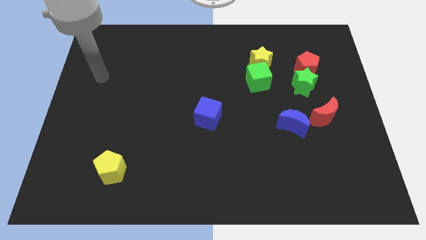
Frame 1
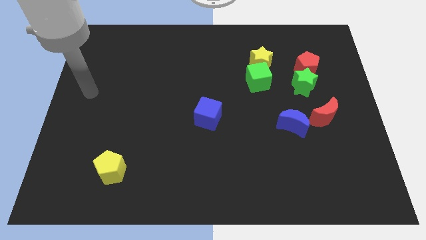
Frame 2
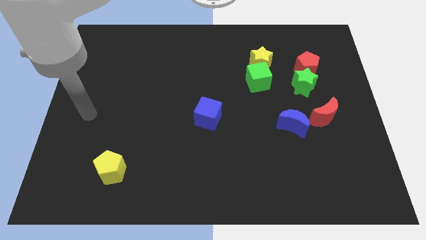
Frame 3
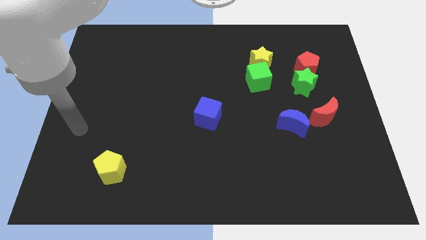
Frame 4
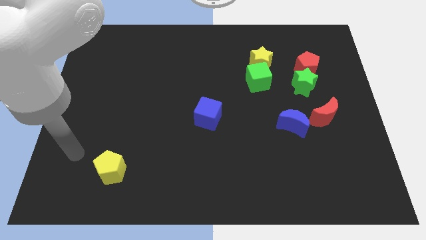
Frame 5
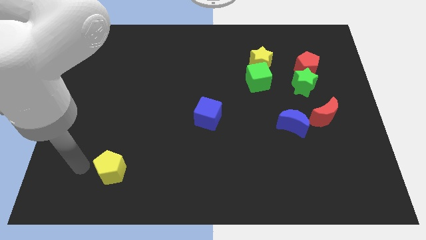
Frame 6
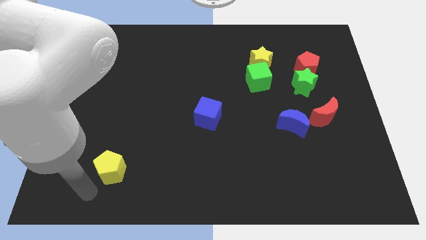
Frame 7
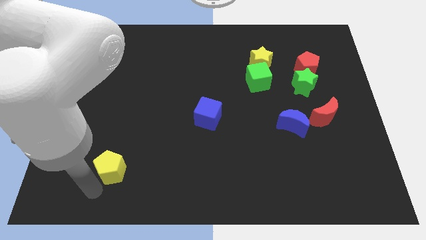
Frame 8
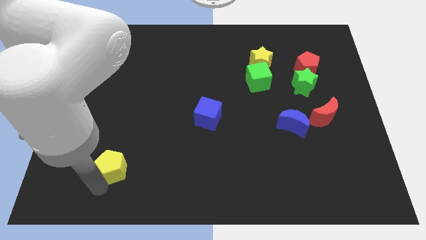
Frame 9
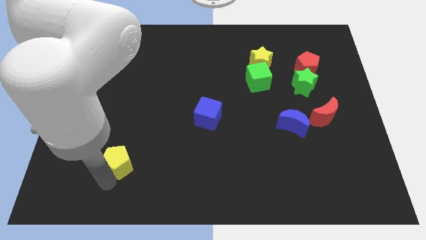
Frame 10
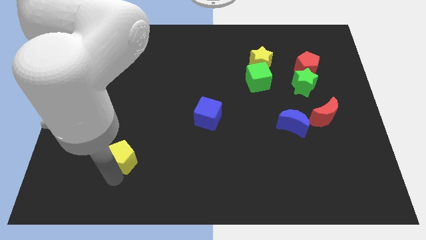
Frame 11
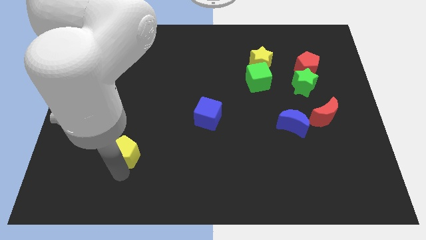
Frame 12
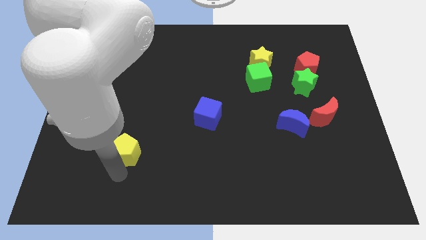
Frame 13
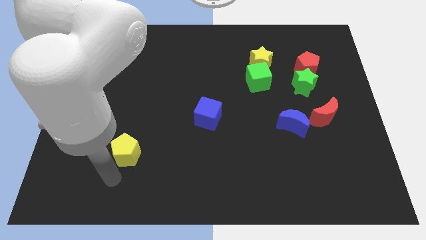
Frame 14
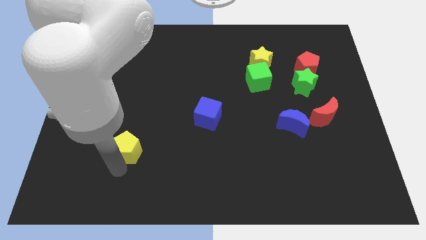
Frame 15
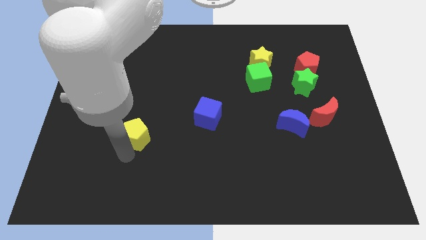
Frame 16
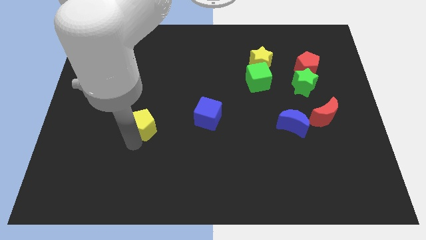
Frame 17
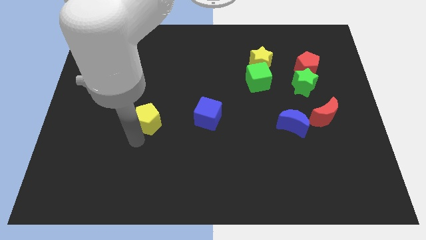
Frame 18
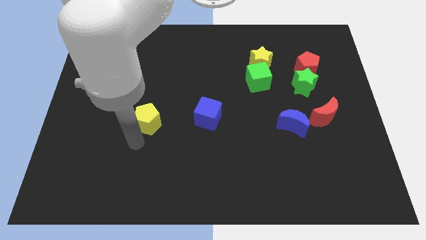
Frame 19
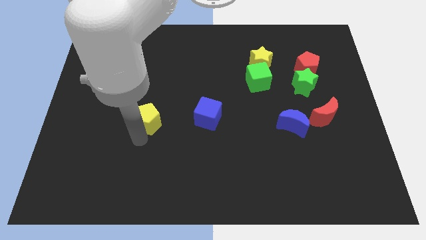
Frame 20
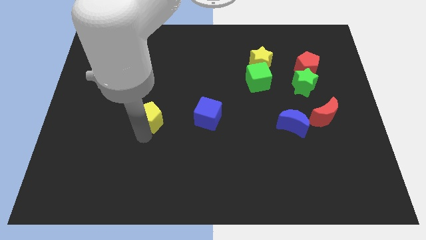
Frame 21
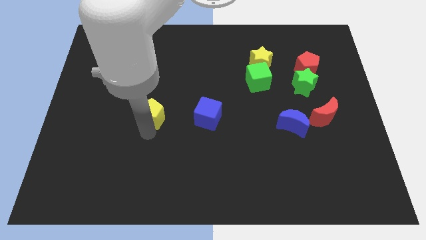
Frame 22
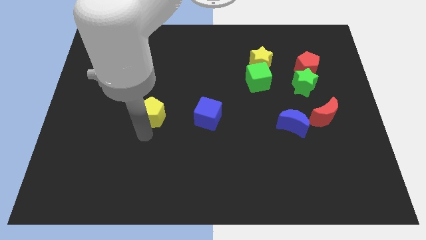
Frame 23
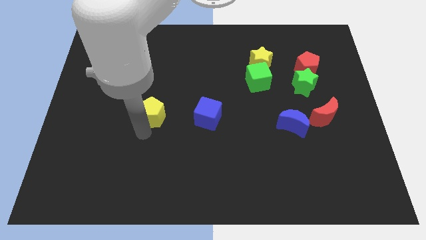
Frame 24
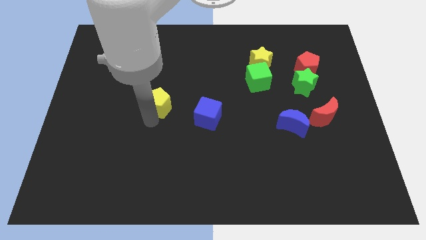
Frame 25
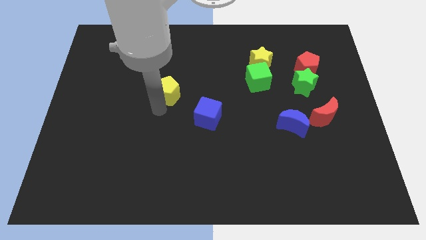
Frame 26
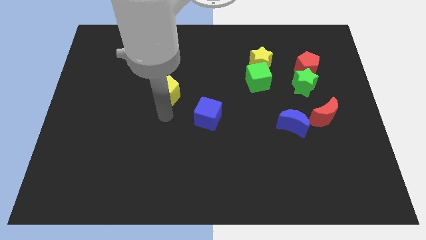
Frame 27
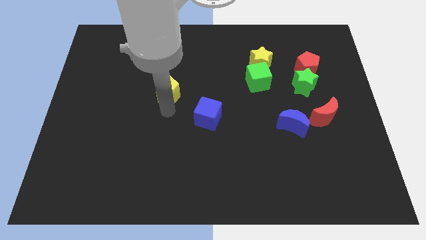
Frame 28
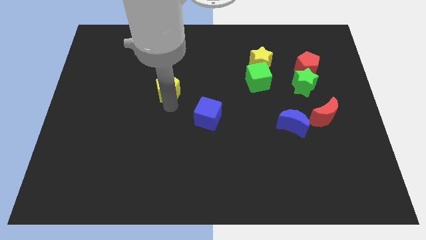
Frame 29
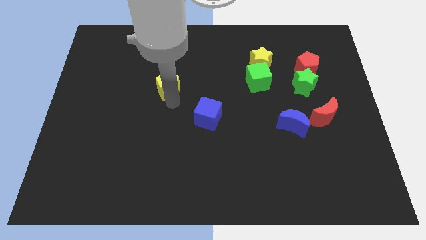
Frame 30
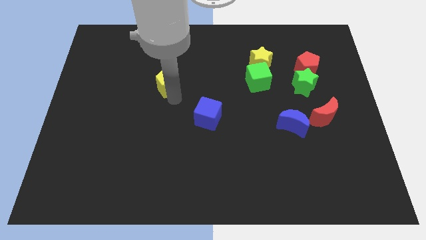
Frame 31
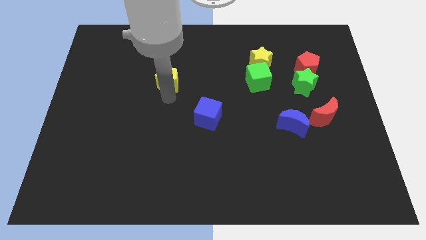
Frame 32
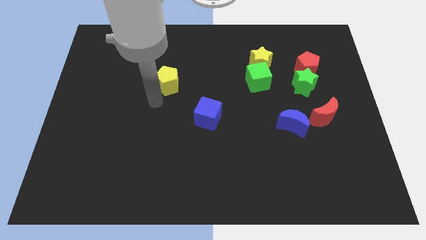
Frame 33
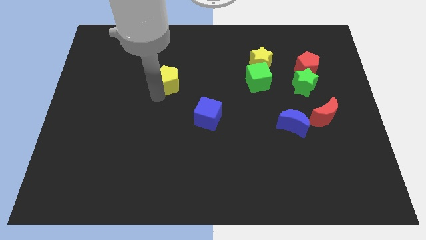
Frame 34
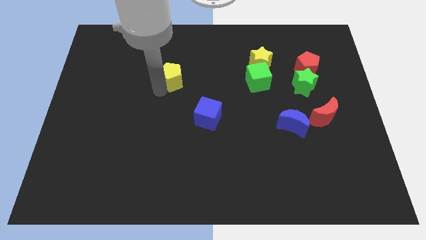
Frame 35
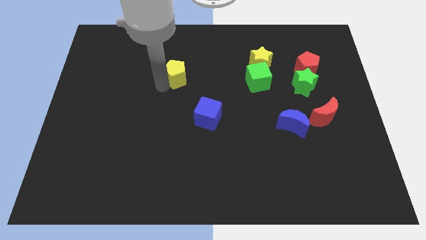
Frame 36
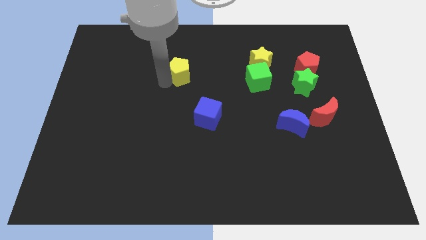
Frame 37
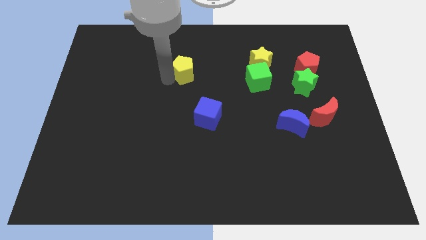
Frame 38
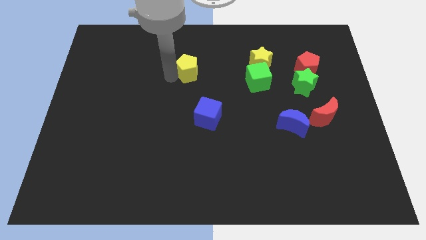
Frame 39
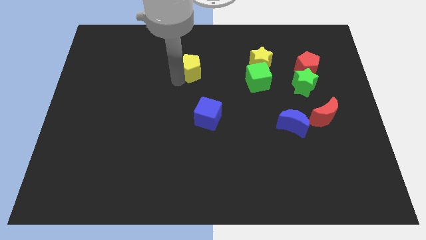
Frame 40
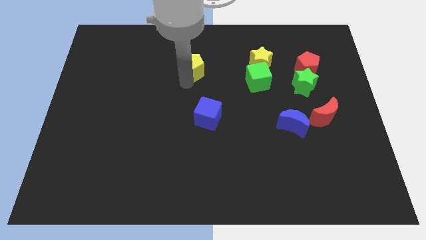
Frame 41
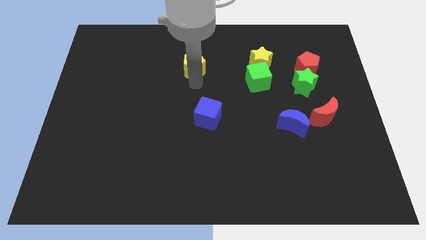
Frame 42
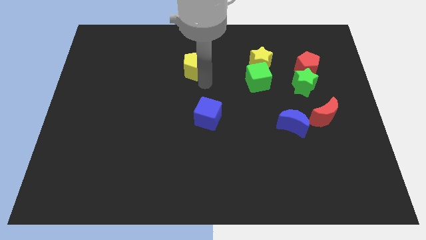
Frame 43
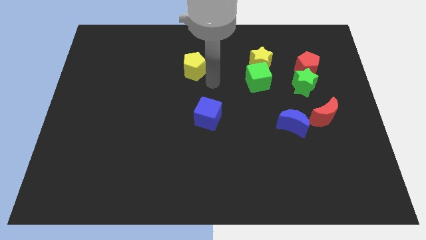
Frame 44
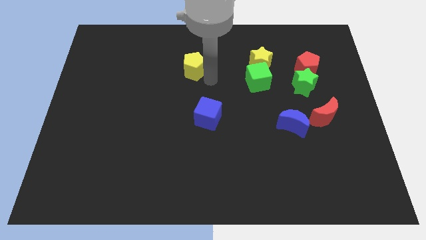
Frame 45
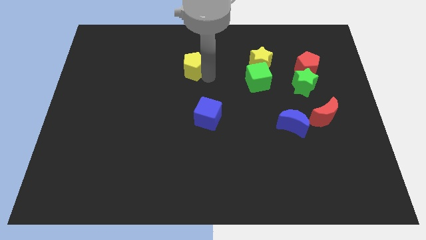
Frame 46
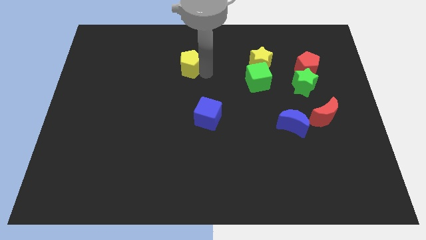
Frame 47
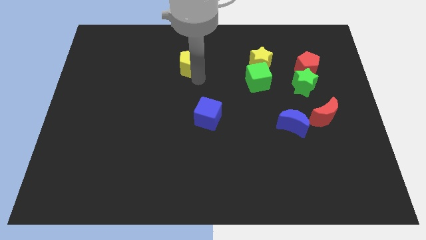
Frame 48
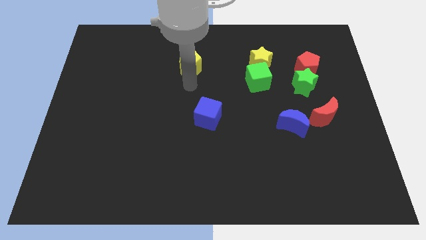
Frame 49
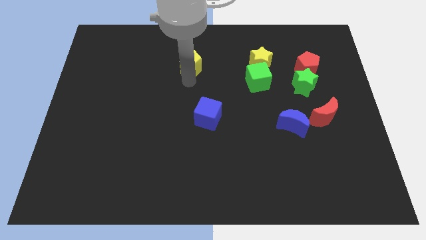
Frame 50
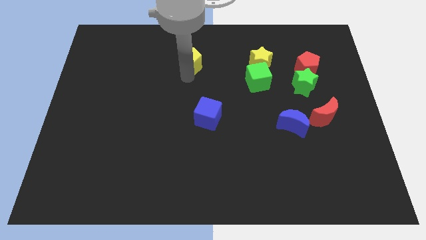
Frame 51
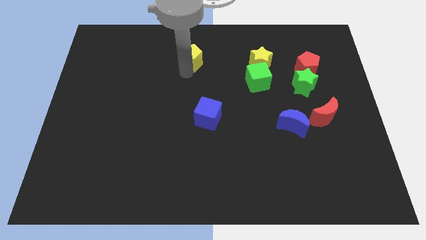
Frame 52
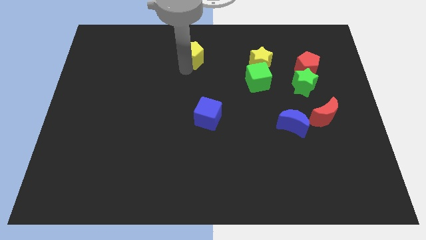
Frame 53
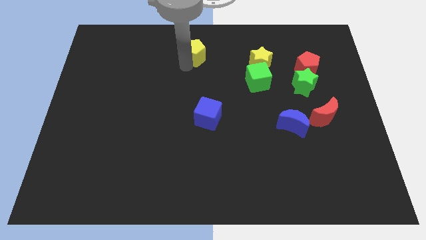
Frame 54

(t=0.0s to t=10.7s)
put the yellow pentagon to the top

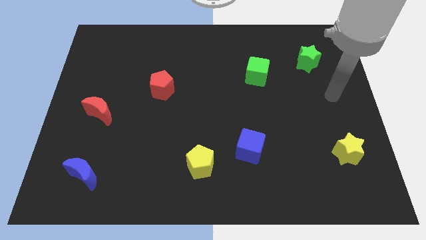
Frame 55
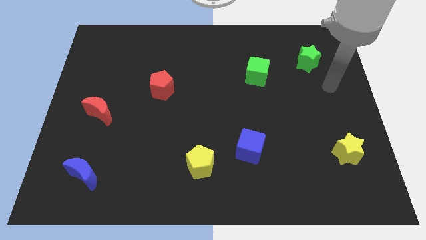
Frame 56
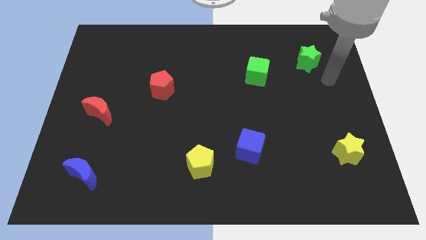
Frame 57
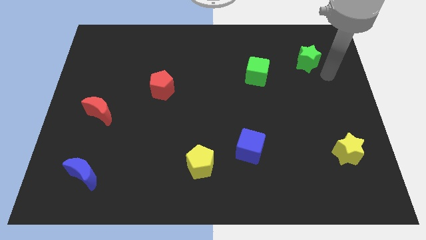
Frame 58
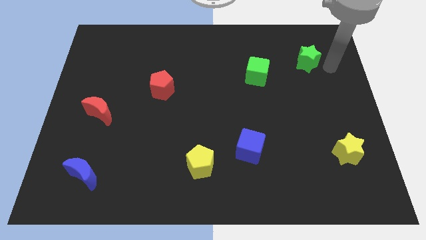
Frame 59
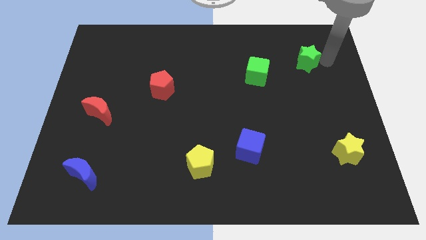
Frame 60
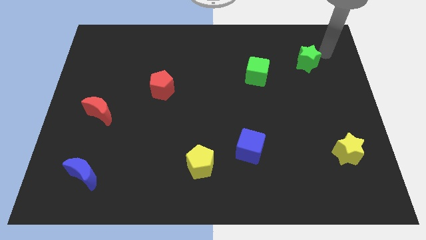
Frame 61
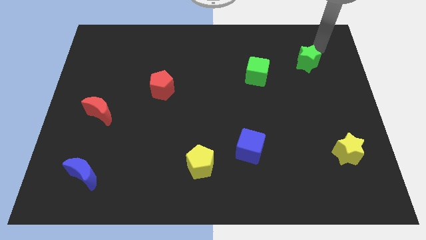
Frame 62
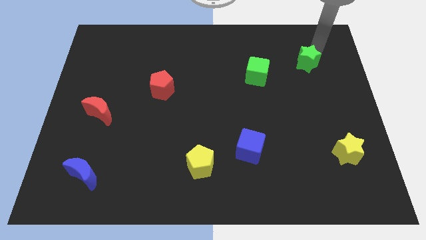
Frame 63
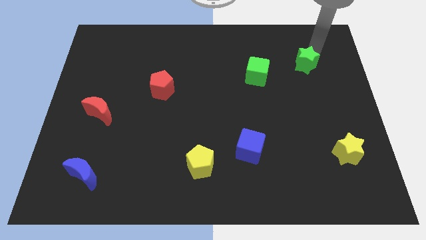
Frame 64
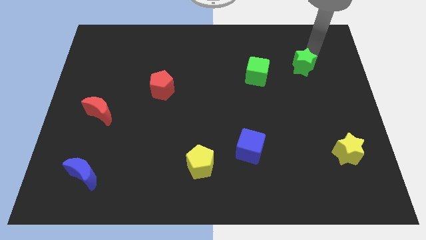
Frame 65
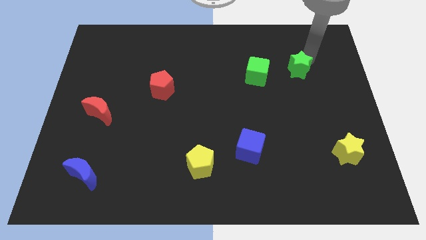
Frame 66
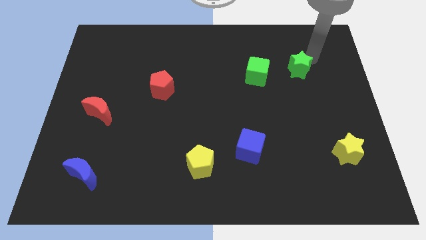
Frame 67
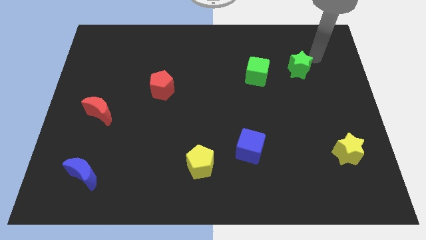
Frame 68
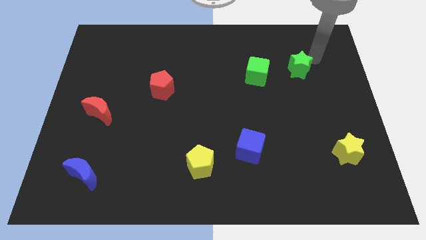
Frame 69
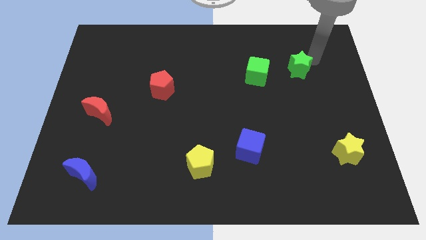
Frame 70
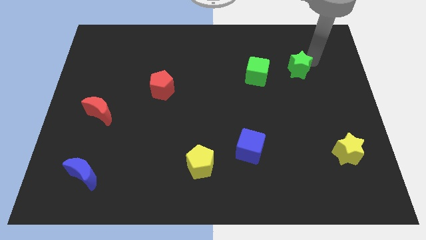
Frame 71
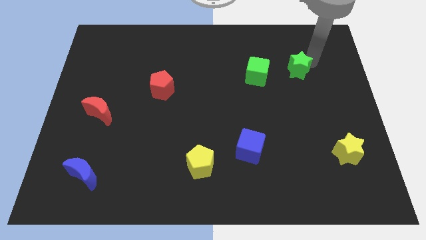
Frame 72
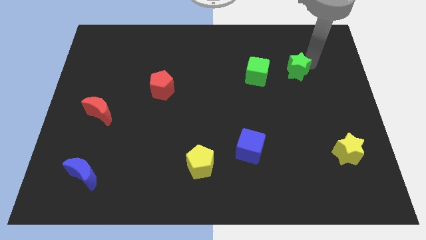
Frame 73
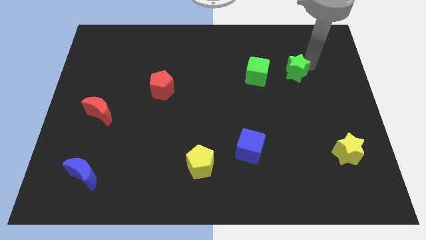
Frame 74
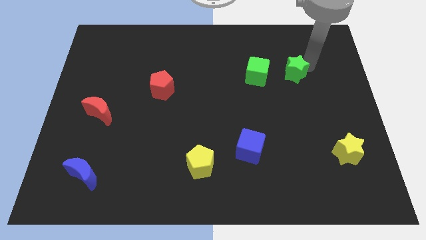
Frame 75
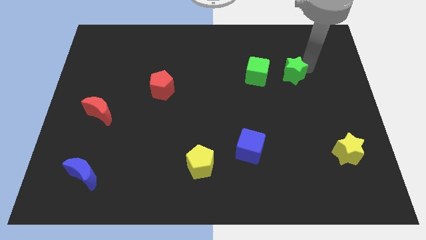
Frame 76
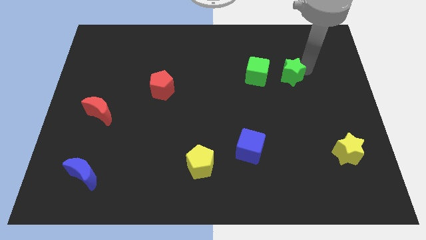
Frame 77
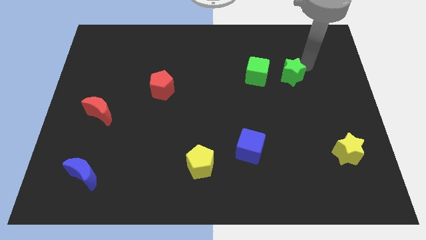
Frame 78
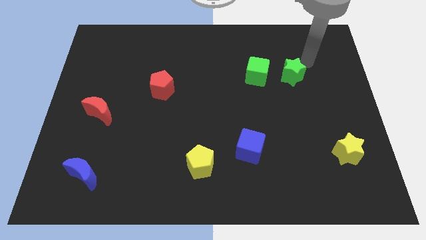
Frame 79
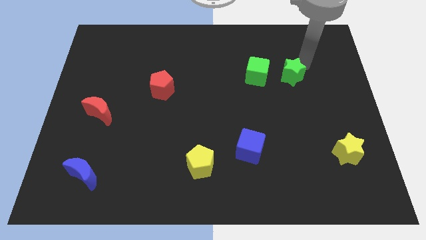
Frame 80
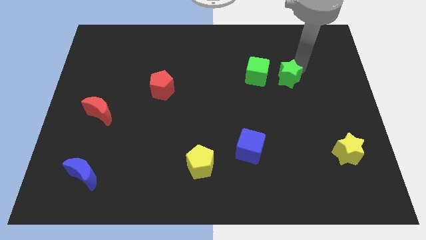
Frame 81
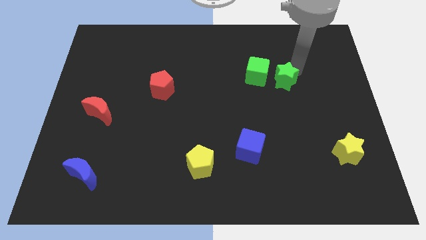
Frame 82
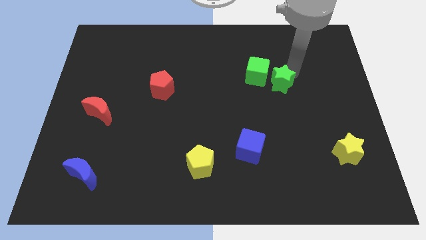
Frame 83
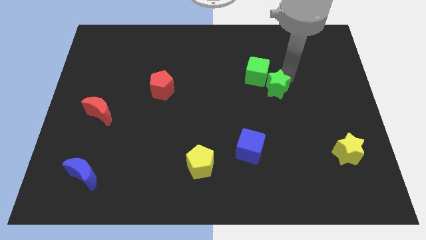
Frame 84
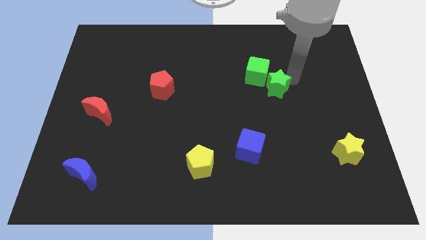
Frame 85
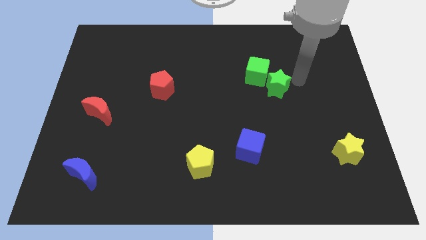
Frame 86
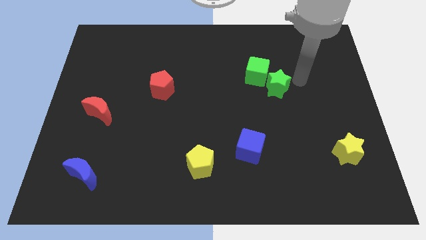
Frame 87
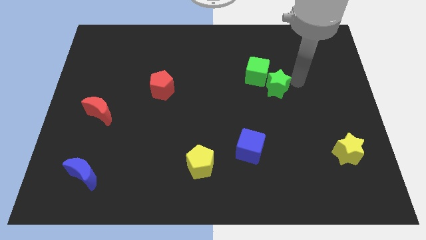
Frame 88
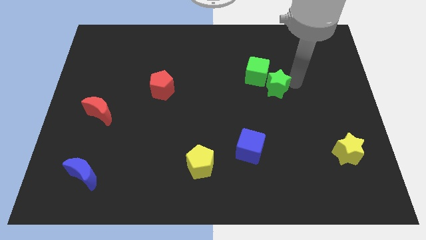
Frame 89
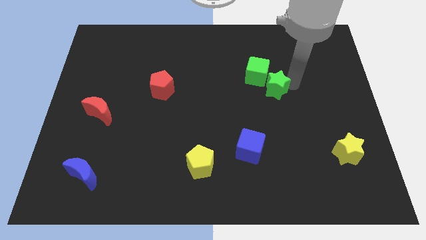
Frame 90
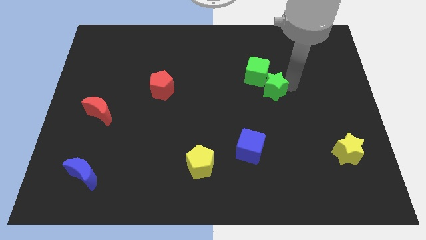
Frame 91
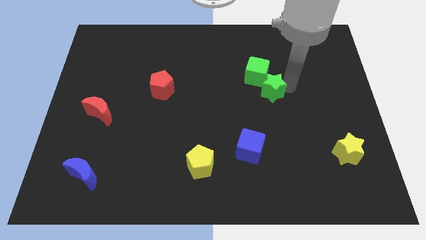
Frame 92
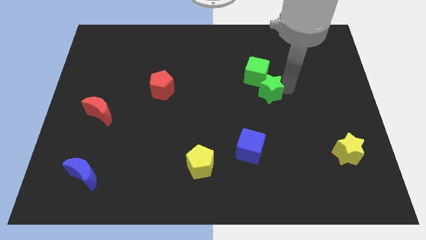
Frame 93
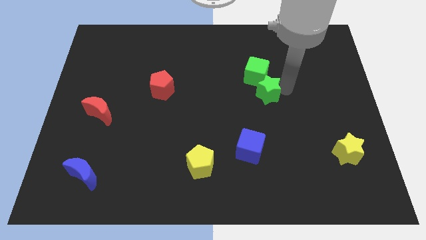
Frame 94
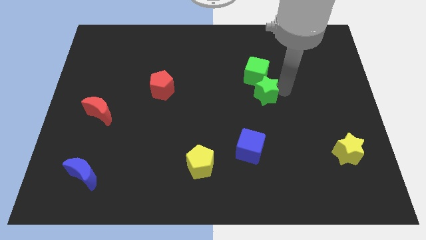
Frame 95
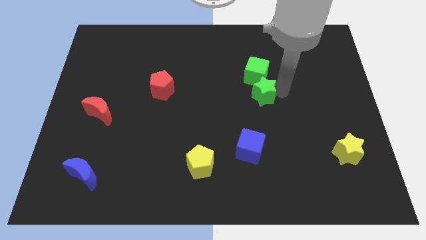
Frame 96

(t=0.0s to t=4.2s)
put the green star to the center
